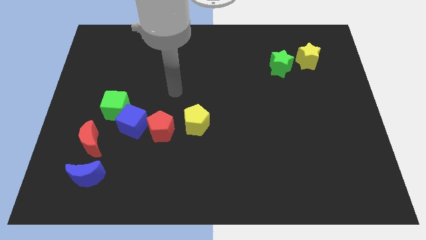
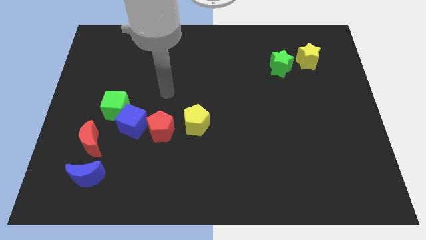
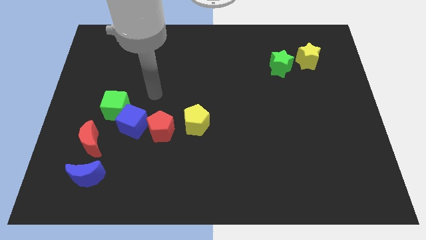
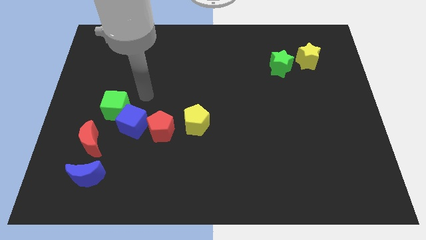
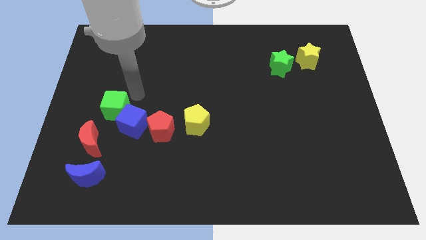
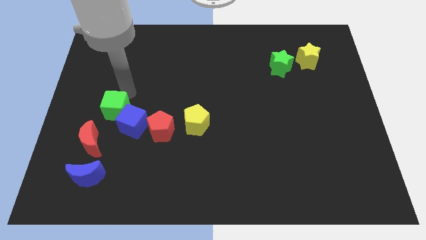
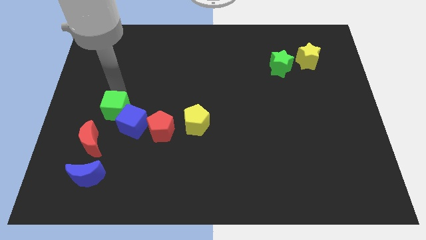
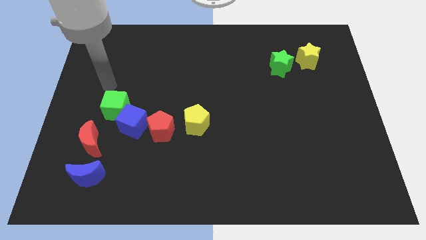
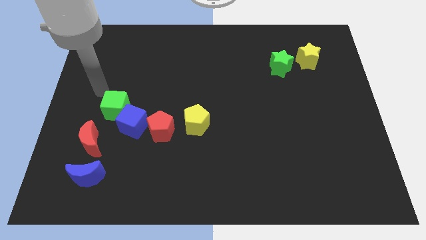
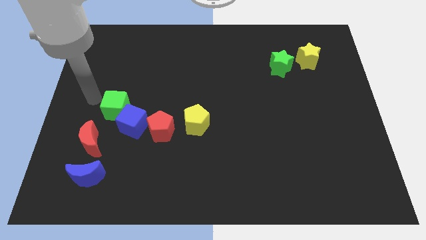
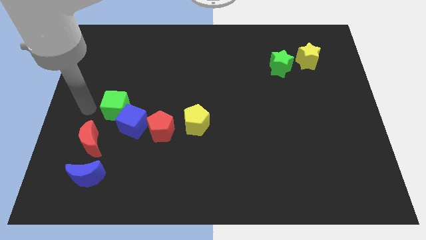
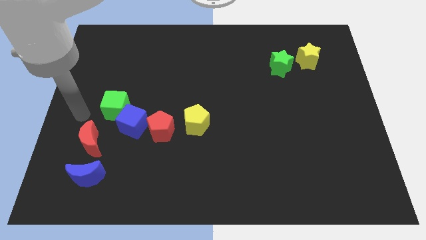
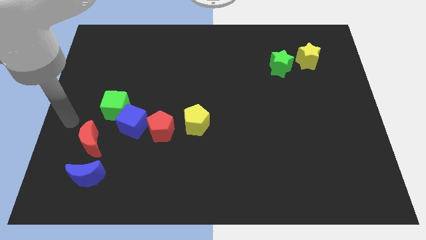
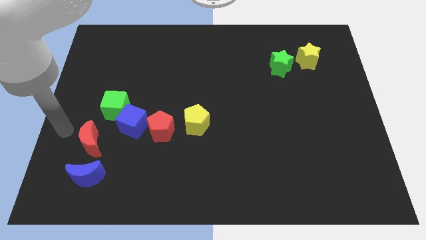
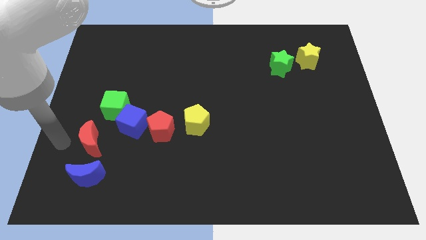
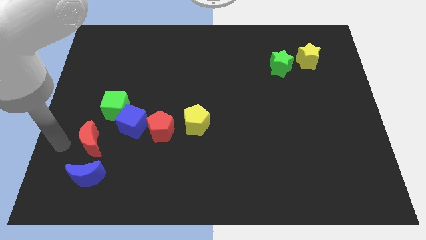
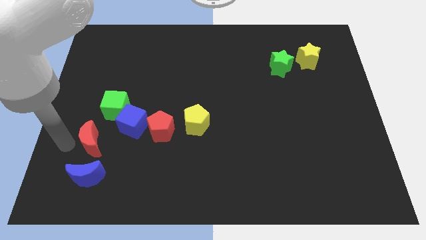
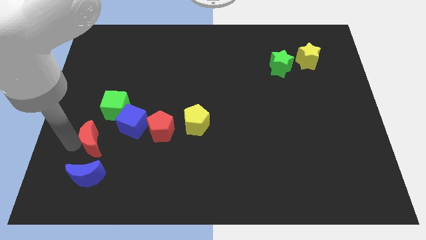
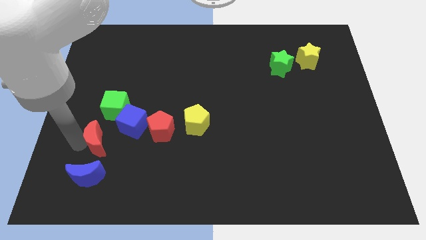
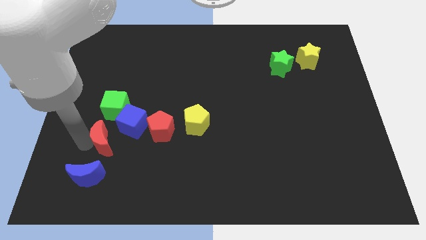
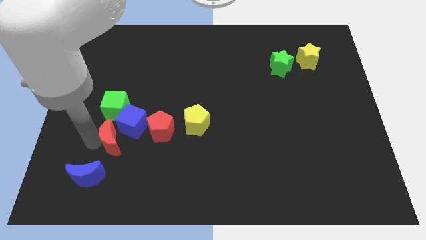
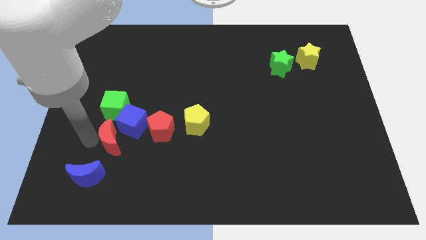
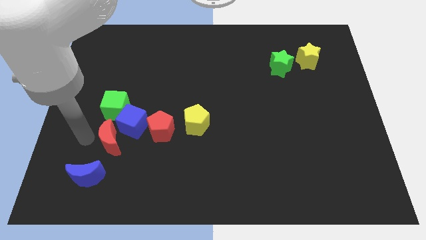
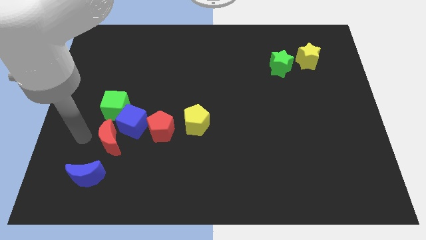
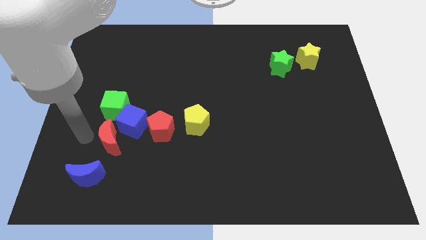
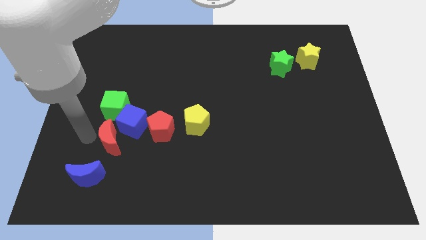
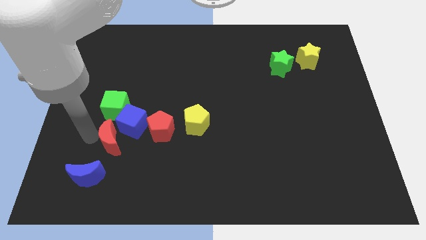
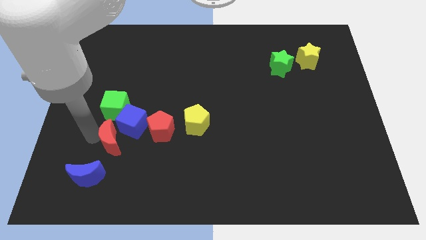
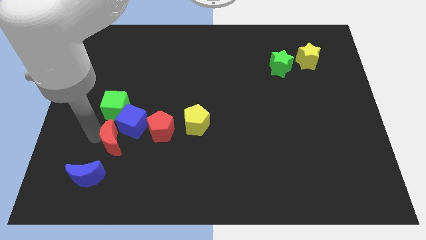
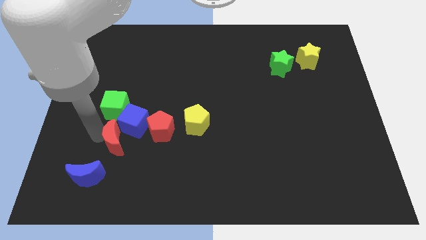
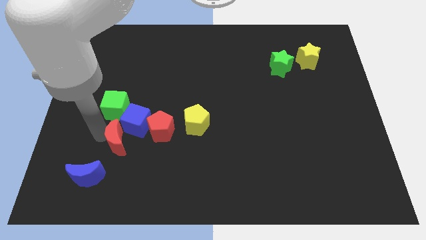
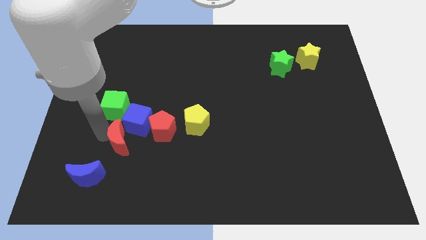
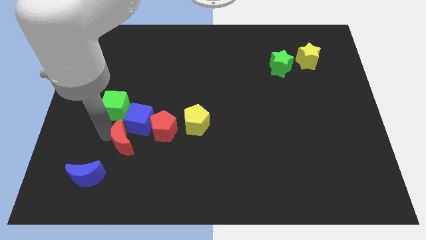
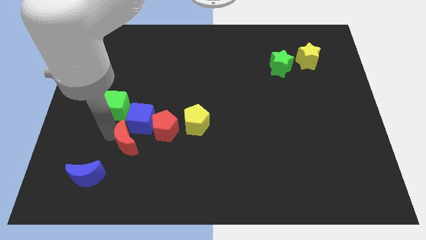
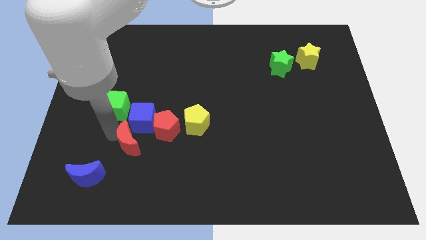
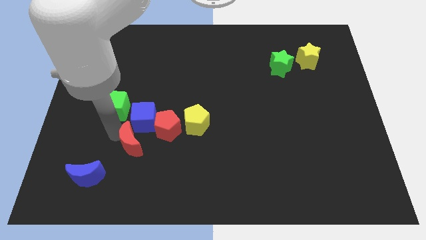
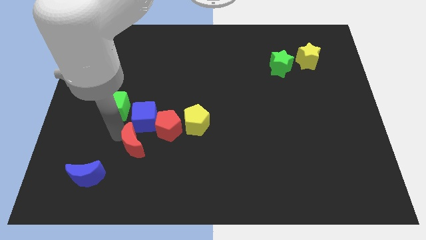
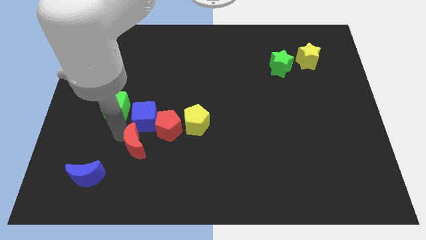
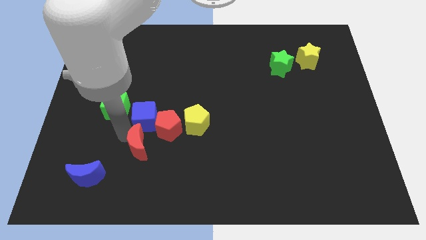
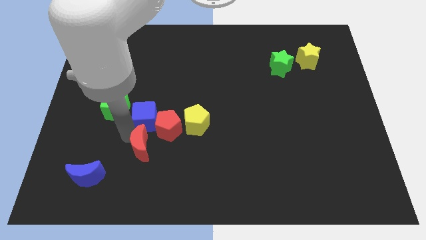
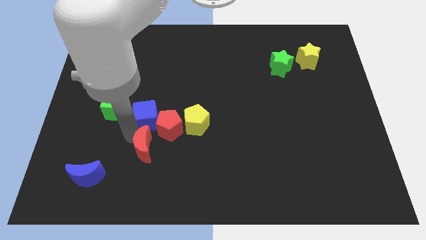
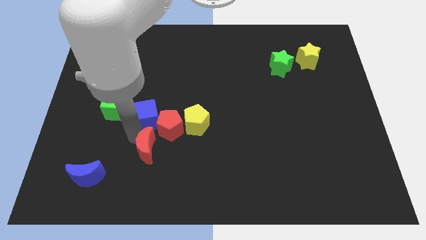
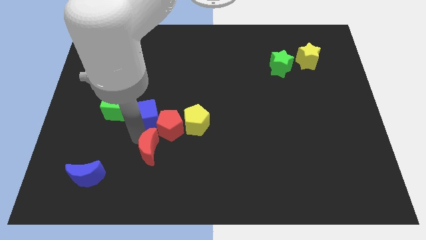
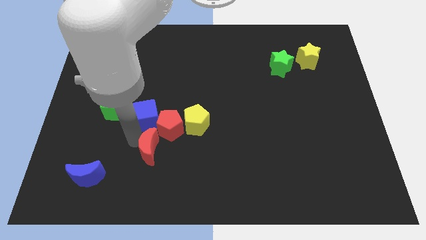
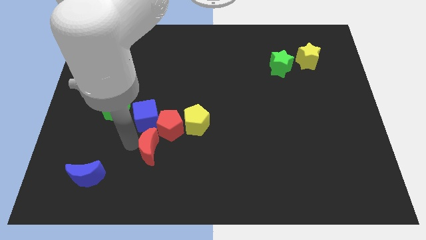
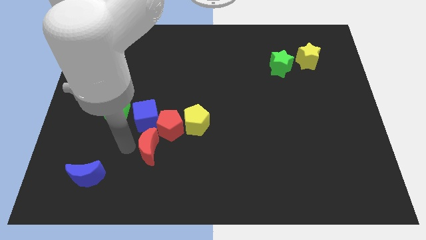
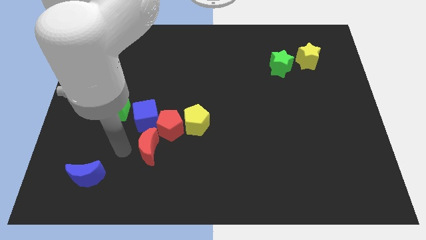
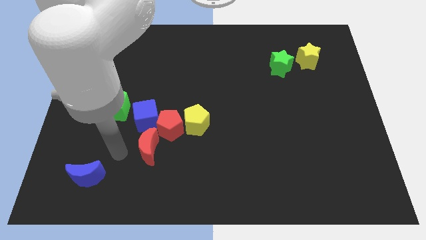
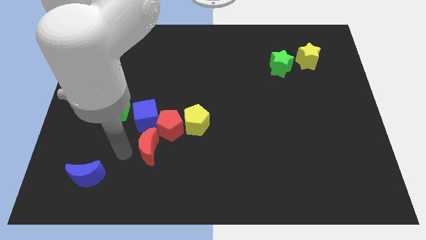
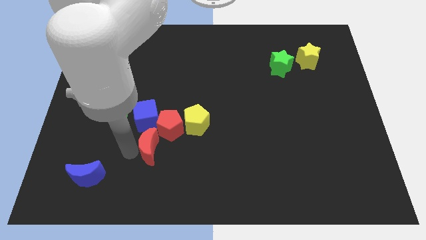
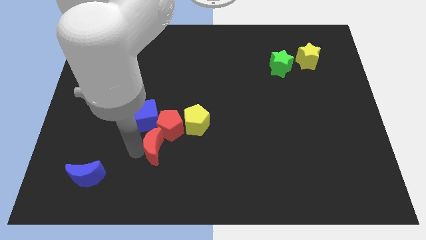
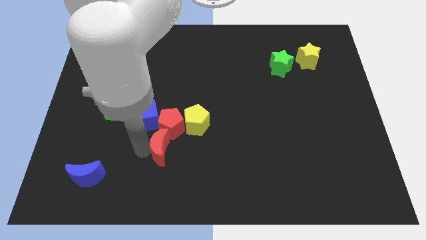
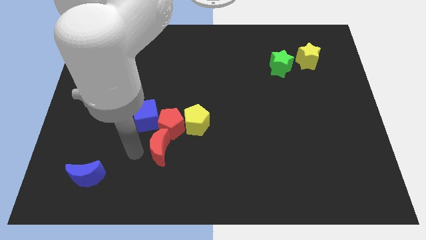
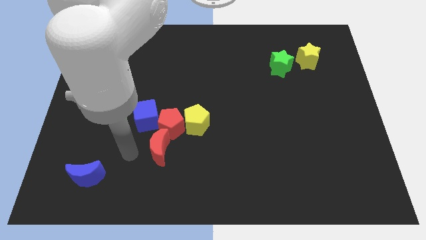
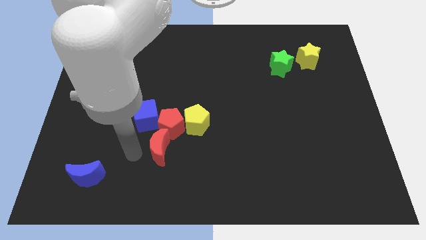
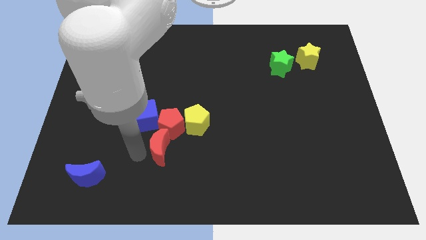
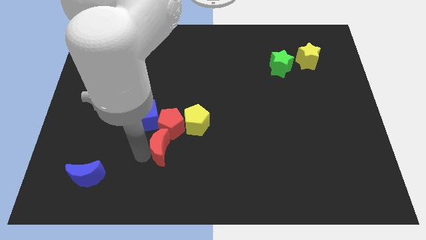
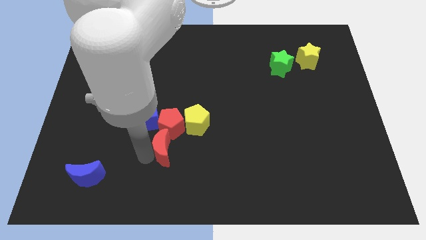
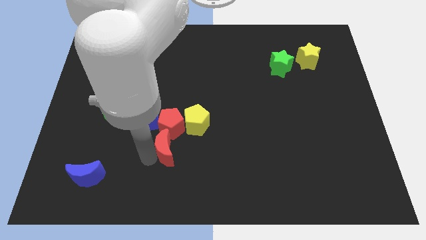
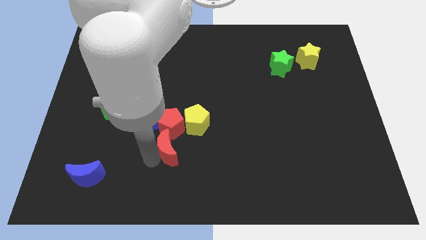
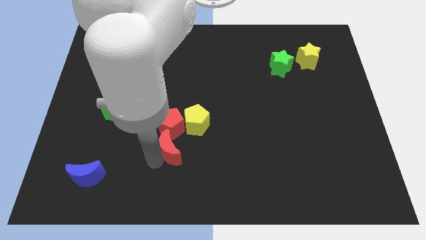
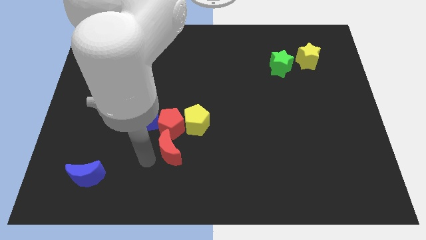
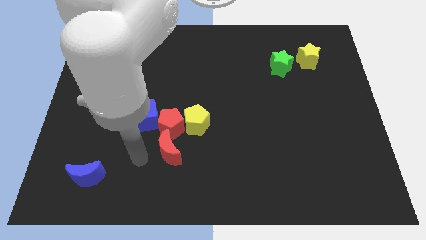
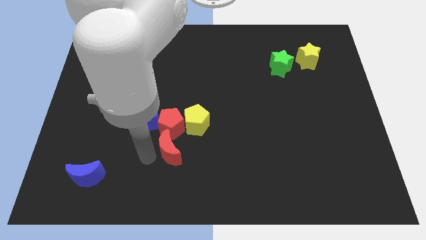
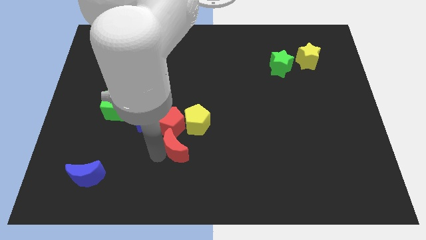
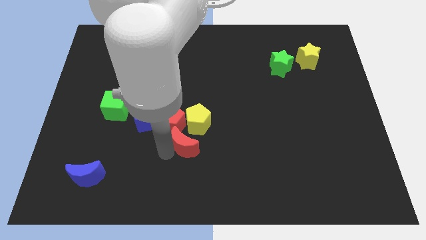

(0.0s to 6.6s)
push the red moon to the right

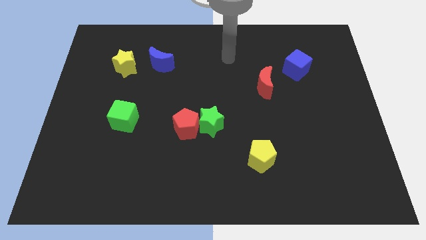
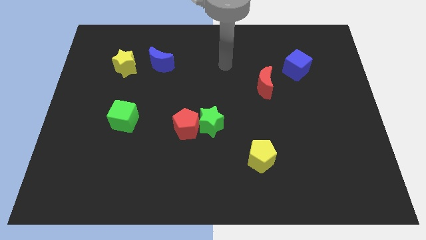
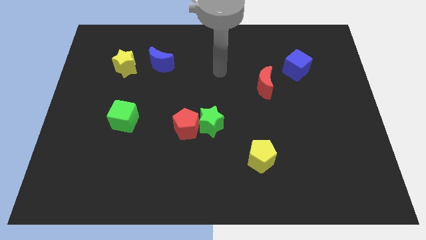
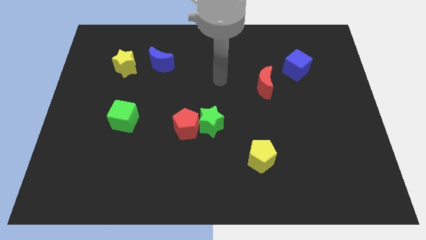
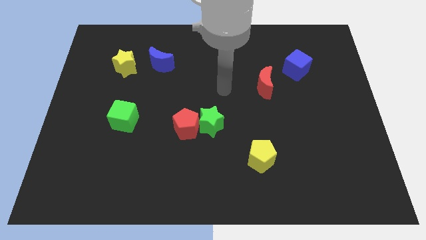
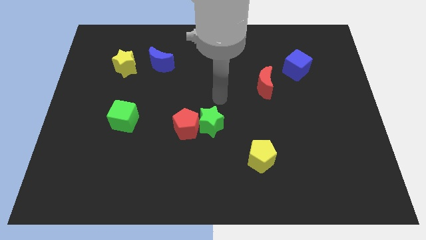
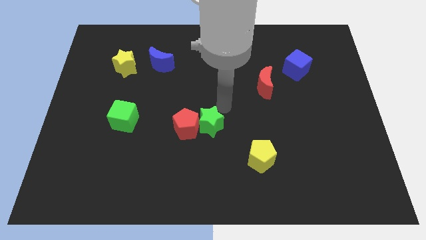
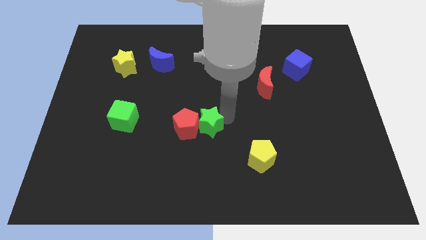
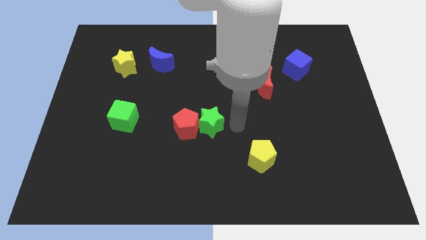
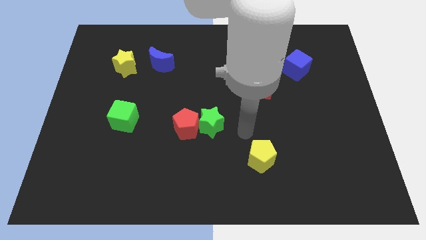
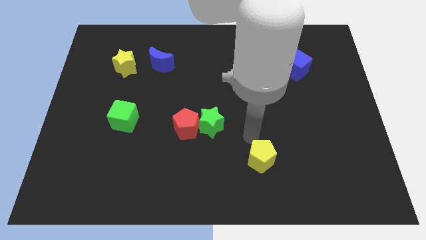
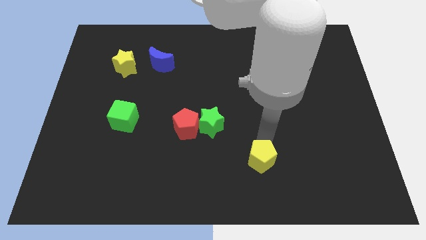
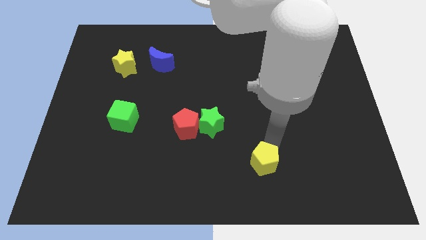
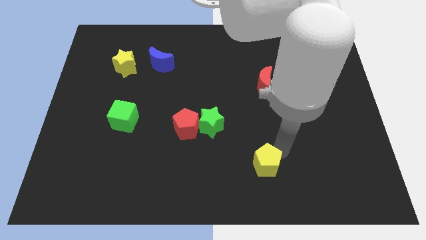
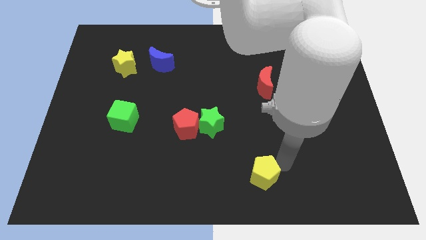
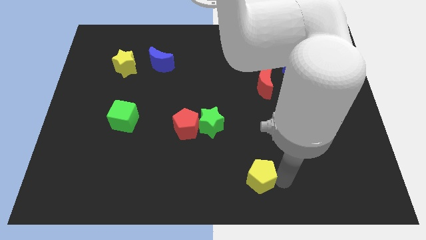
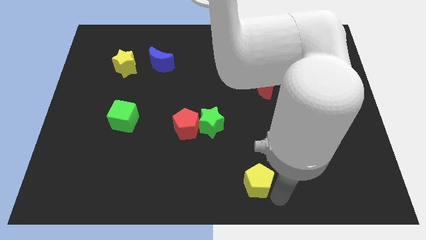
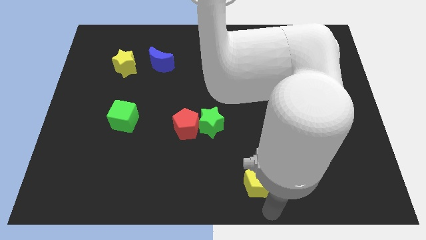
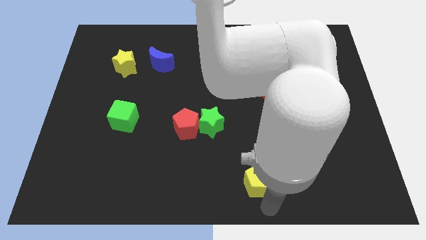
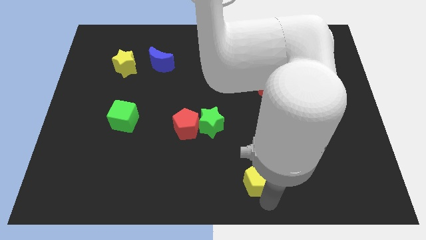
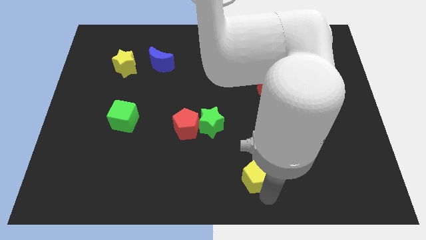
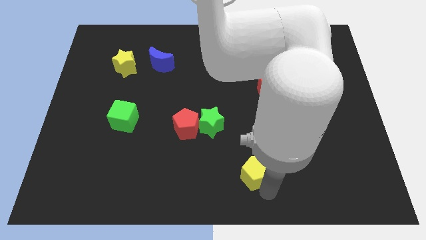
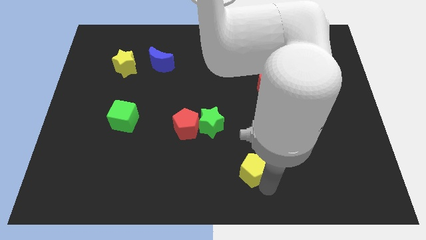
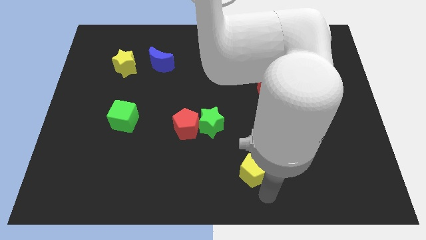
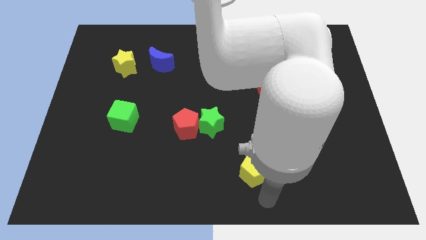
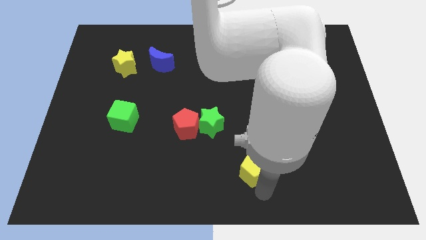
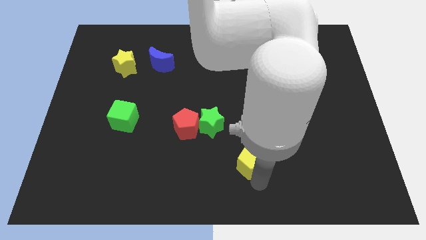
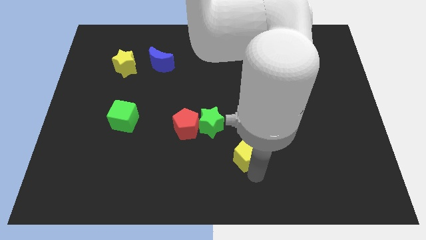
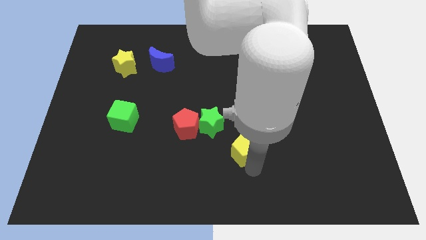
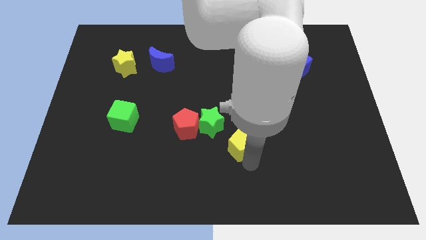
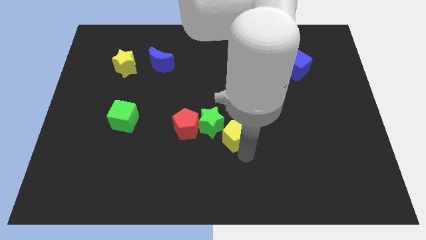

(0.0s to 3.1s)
push the yellow pentagon up and to the left diagonally a little bit
